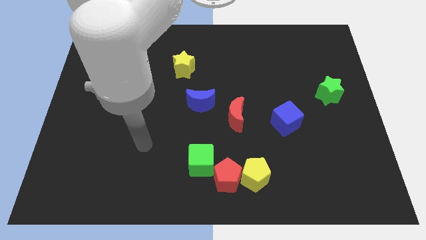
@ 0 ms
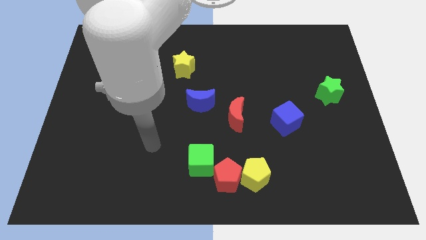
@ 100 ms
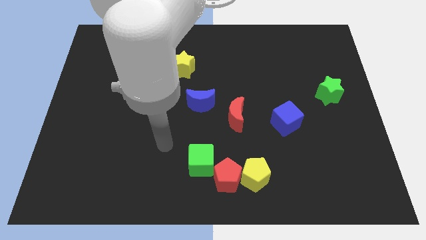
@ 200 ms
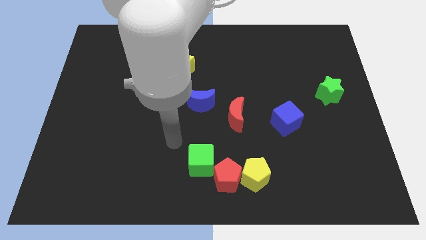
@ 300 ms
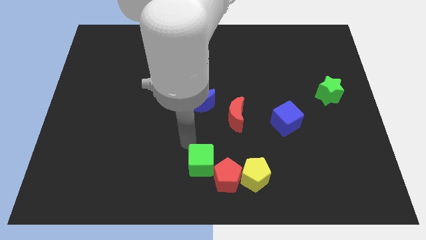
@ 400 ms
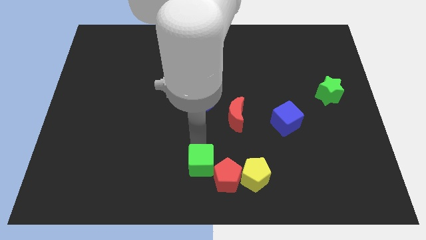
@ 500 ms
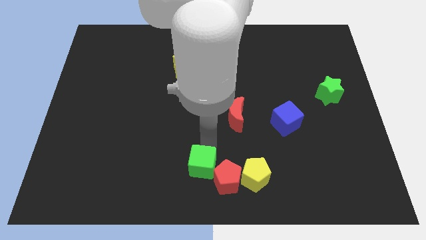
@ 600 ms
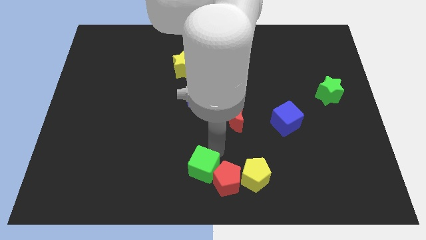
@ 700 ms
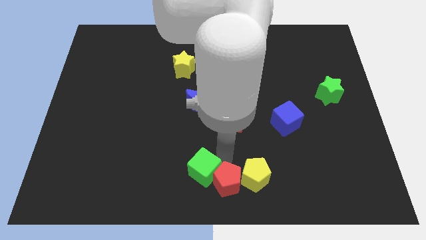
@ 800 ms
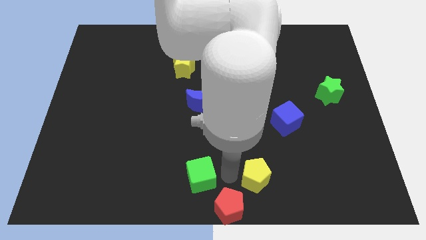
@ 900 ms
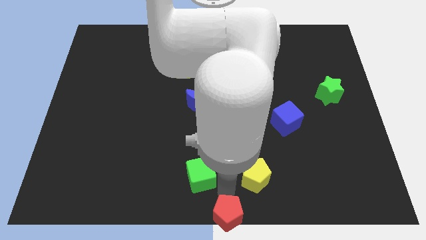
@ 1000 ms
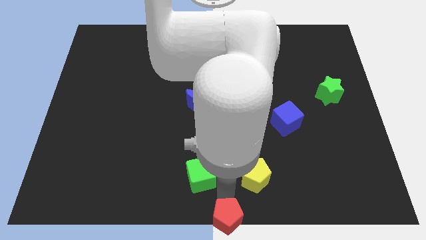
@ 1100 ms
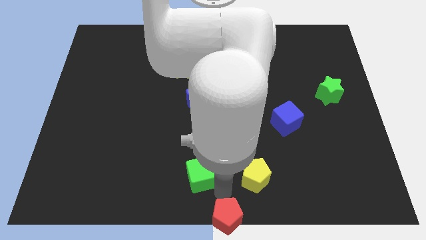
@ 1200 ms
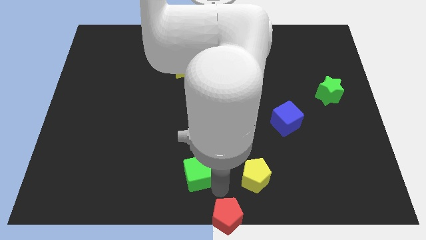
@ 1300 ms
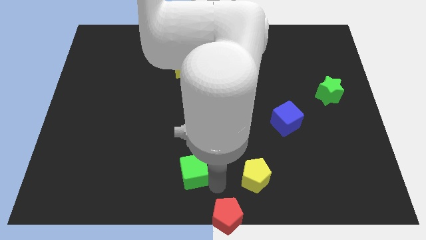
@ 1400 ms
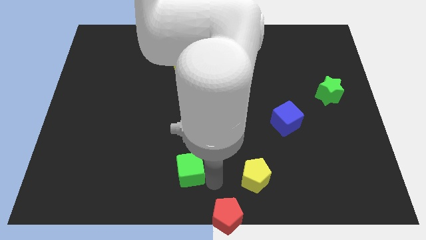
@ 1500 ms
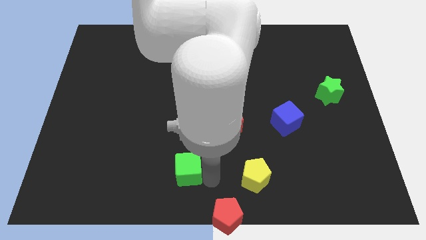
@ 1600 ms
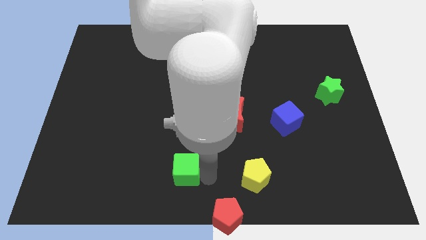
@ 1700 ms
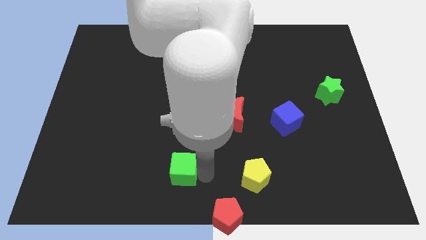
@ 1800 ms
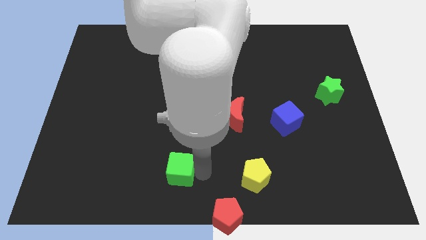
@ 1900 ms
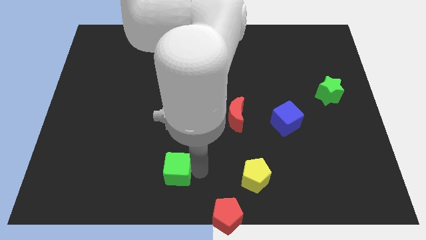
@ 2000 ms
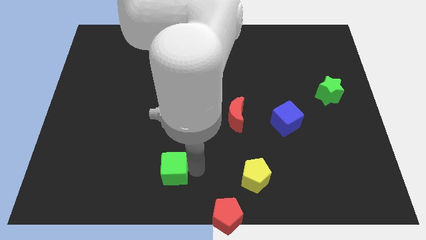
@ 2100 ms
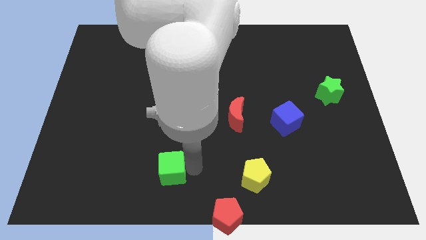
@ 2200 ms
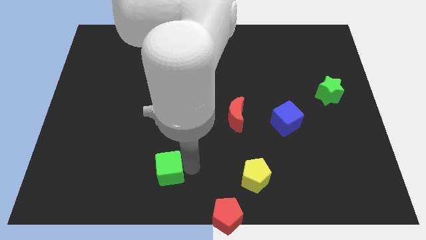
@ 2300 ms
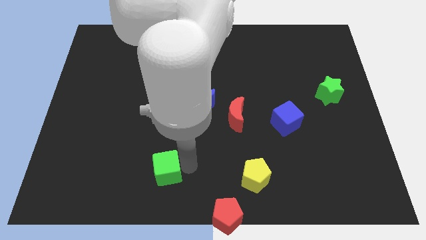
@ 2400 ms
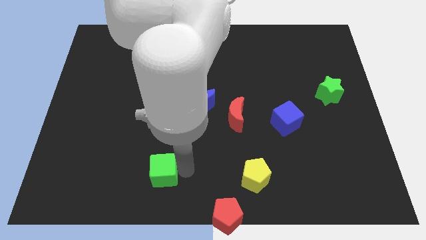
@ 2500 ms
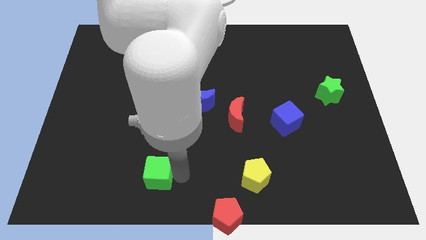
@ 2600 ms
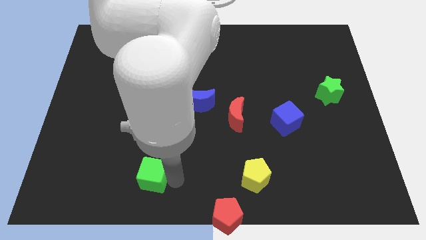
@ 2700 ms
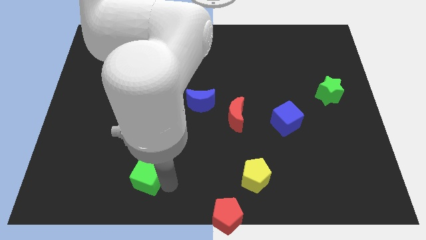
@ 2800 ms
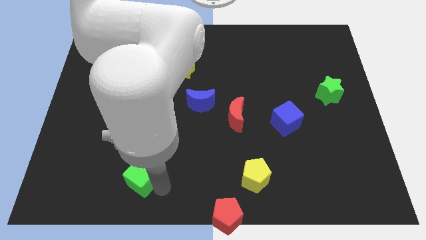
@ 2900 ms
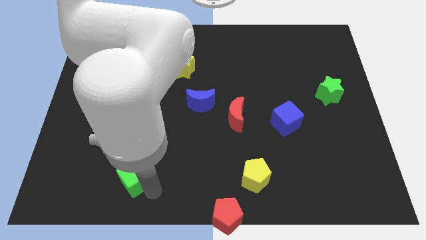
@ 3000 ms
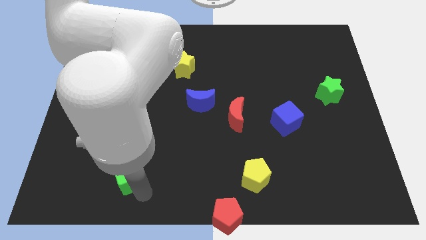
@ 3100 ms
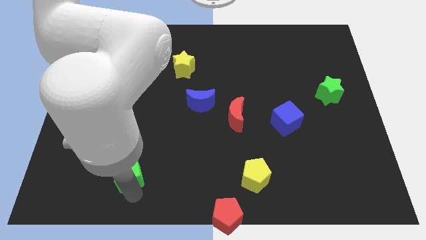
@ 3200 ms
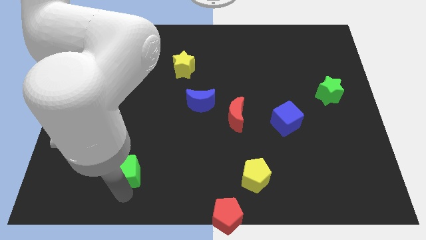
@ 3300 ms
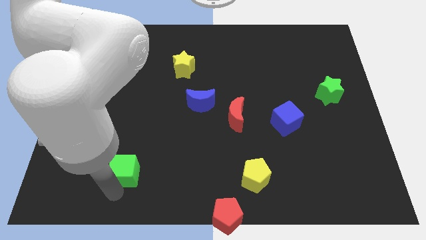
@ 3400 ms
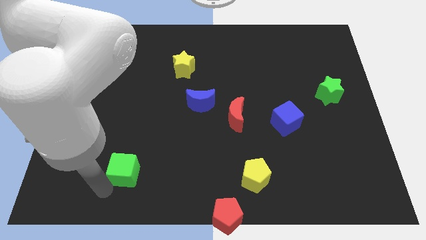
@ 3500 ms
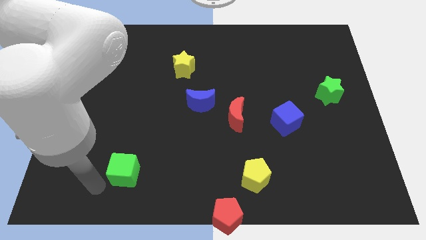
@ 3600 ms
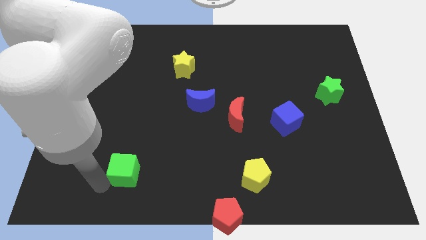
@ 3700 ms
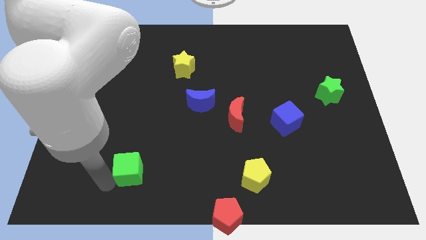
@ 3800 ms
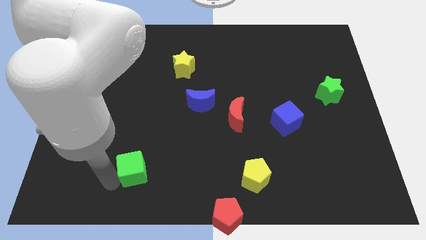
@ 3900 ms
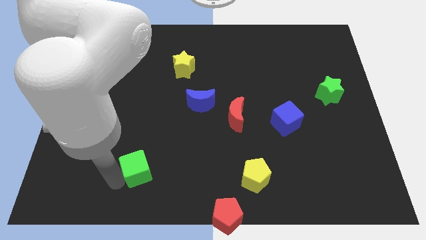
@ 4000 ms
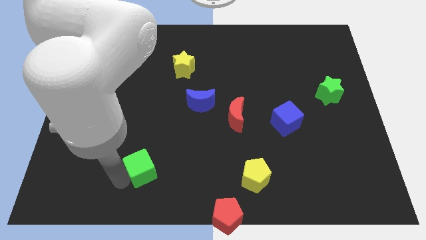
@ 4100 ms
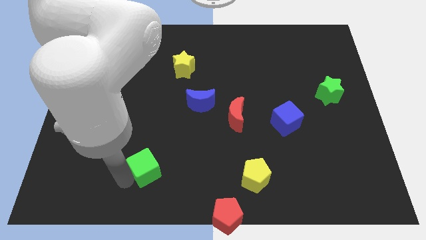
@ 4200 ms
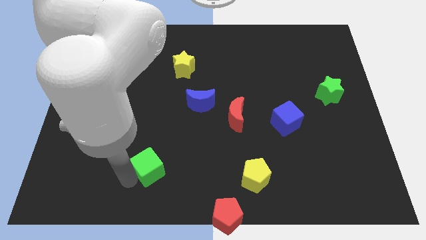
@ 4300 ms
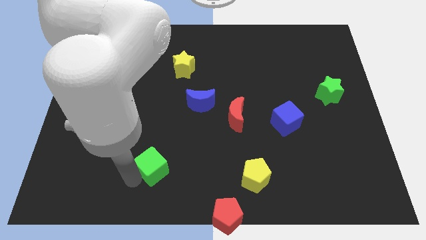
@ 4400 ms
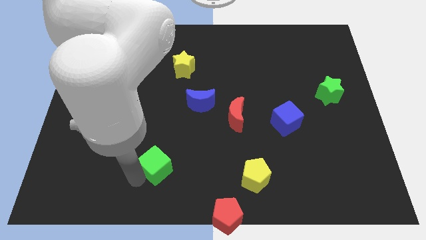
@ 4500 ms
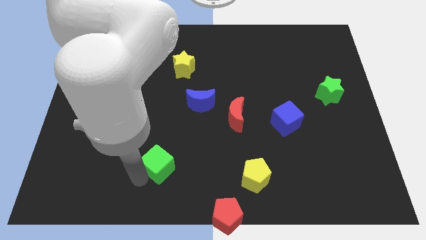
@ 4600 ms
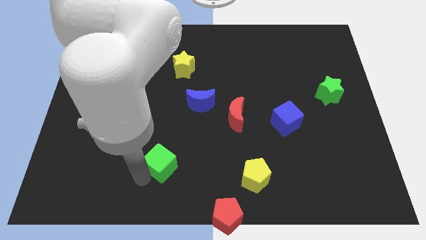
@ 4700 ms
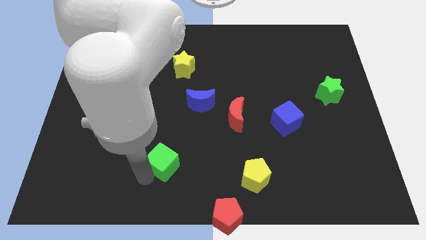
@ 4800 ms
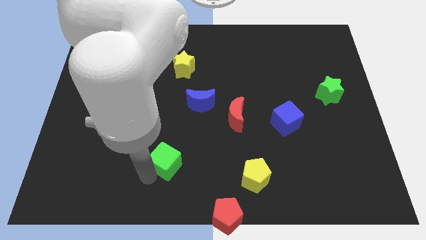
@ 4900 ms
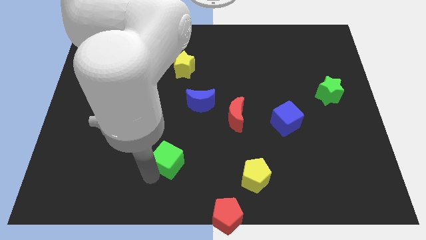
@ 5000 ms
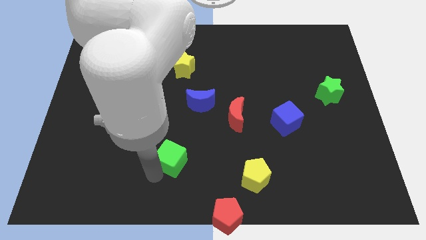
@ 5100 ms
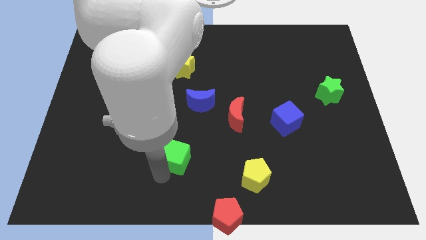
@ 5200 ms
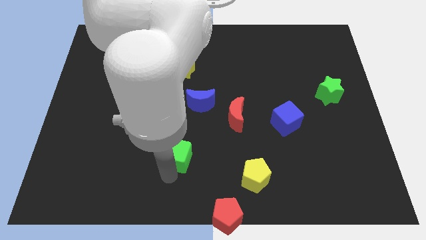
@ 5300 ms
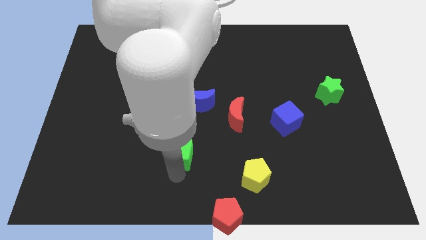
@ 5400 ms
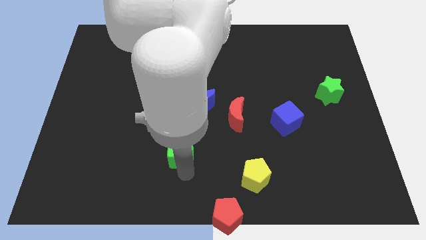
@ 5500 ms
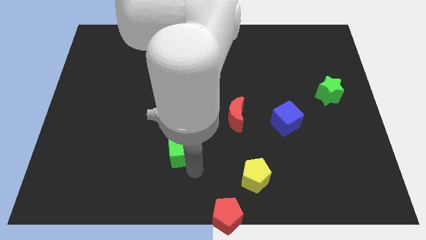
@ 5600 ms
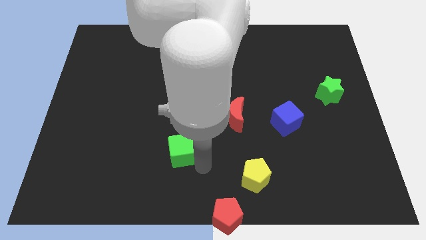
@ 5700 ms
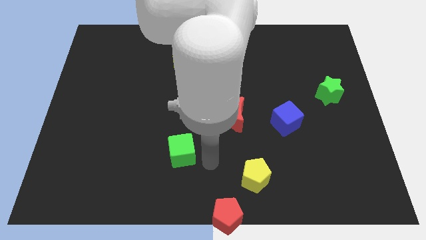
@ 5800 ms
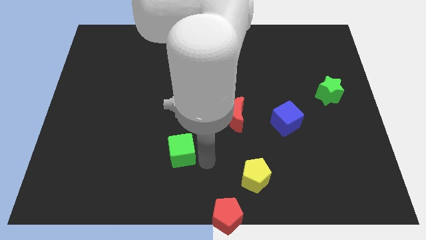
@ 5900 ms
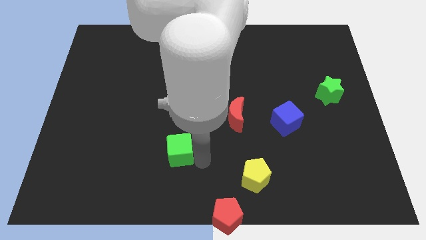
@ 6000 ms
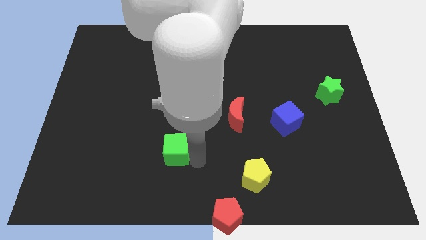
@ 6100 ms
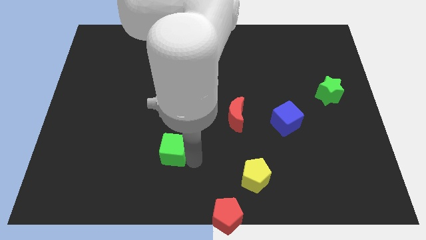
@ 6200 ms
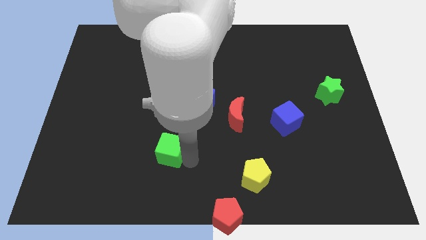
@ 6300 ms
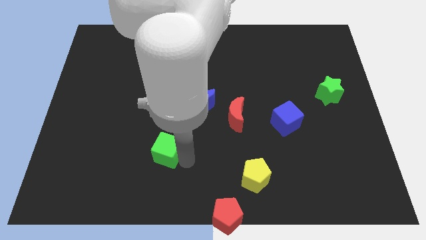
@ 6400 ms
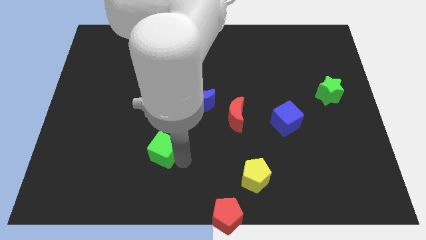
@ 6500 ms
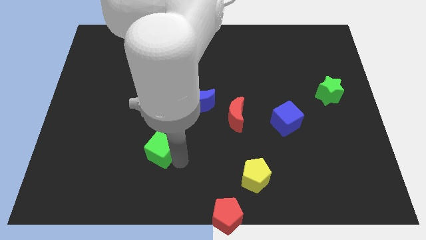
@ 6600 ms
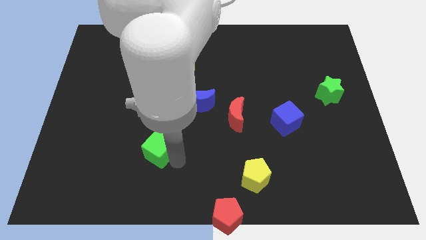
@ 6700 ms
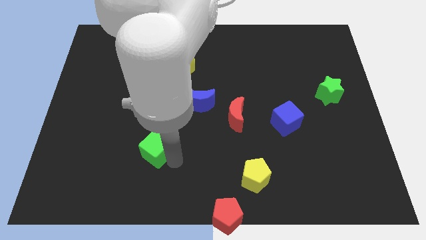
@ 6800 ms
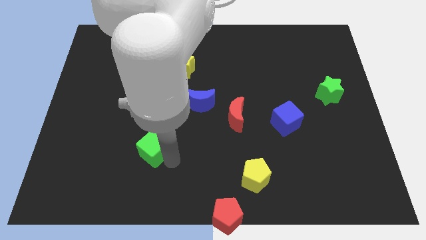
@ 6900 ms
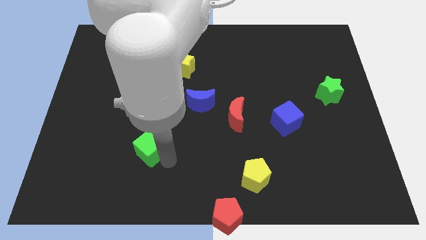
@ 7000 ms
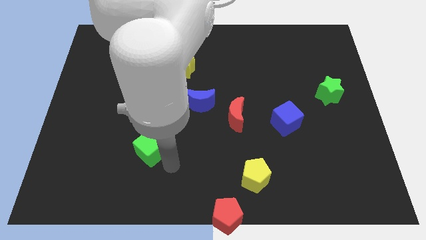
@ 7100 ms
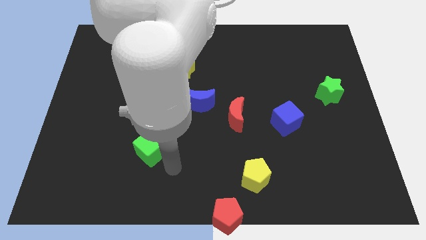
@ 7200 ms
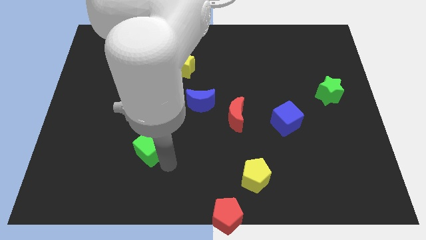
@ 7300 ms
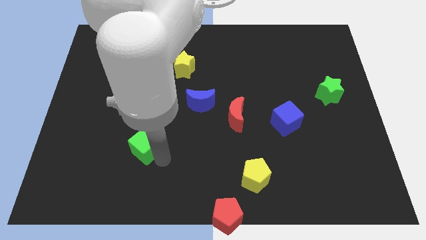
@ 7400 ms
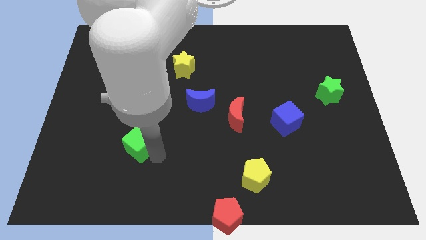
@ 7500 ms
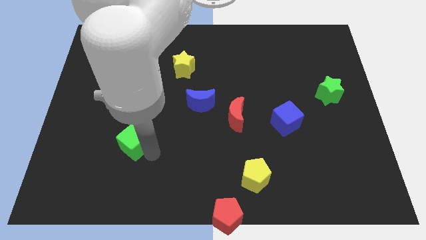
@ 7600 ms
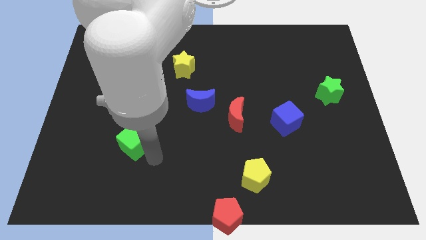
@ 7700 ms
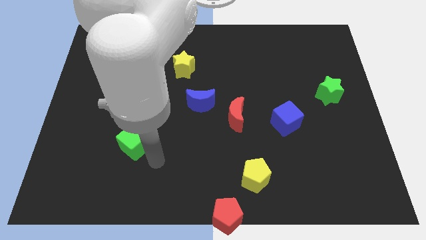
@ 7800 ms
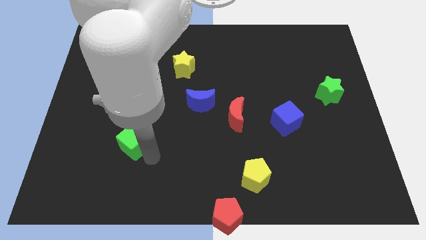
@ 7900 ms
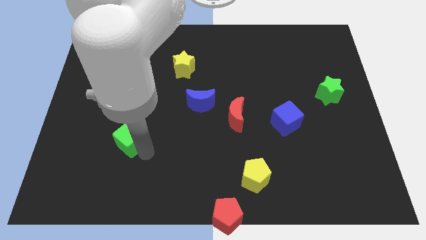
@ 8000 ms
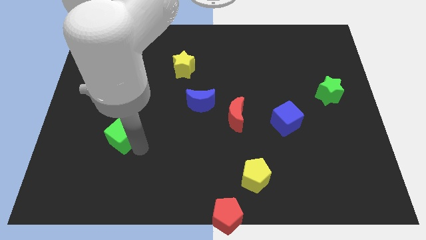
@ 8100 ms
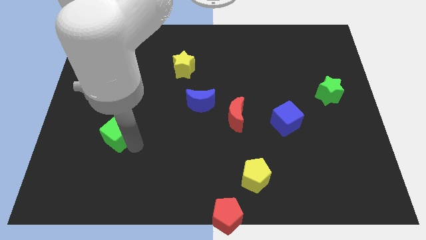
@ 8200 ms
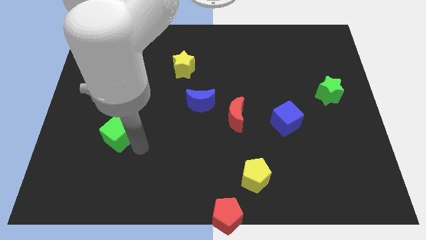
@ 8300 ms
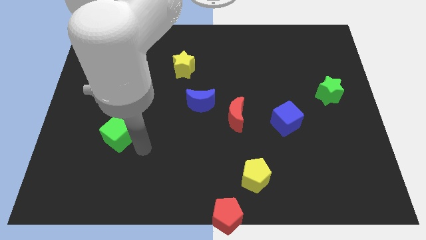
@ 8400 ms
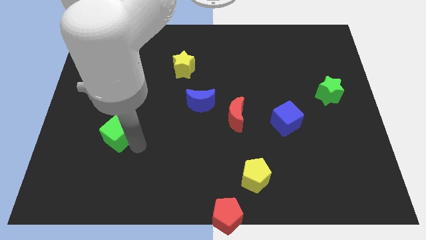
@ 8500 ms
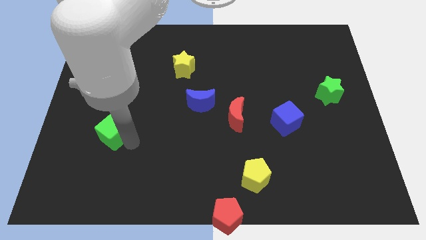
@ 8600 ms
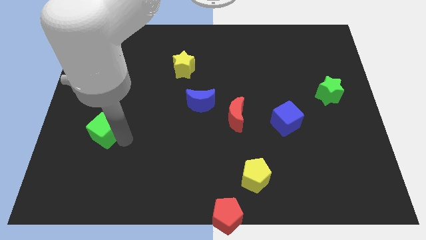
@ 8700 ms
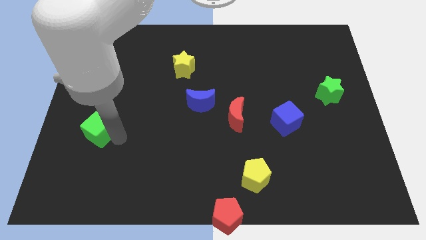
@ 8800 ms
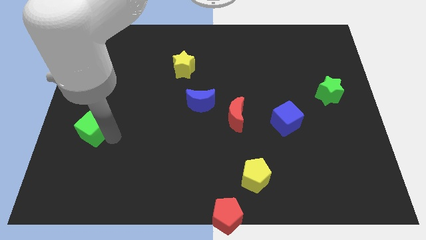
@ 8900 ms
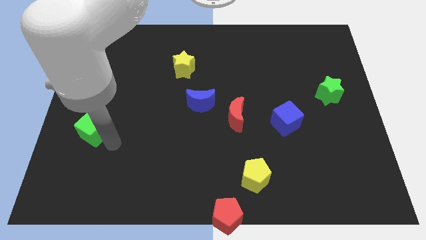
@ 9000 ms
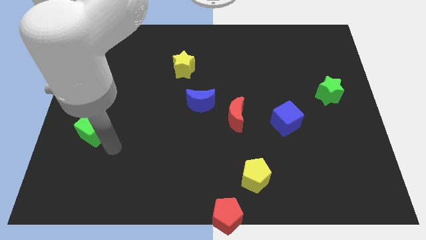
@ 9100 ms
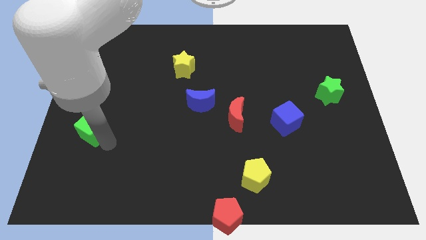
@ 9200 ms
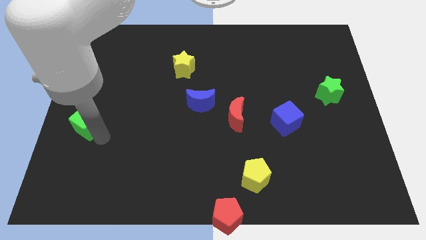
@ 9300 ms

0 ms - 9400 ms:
push the green cube to the left side of the board
